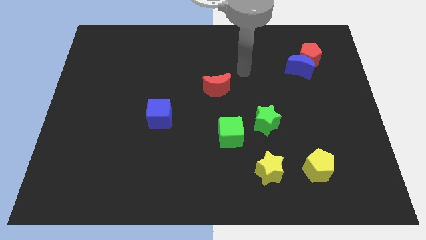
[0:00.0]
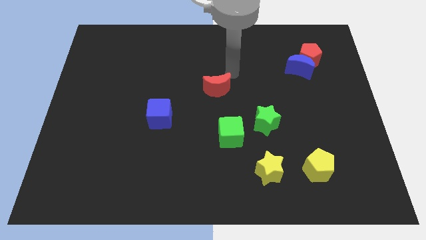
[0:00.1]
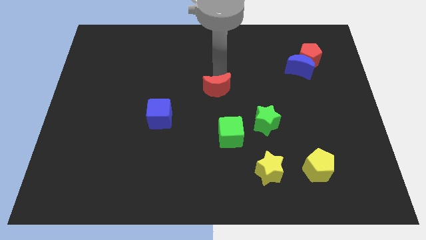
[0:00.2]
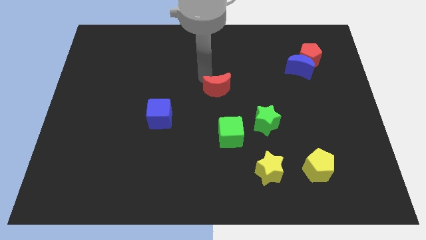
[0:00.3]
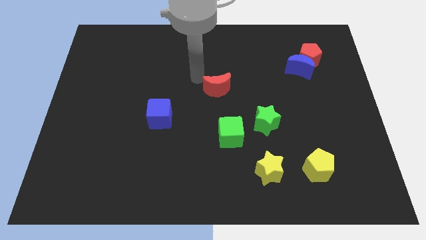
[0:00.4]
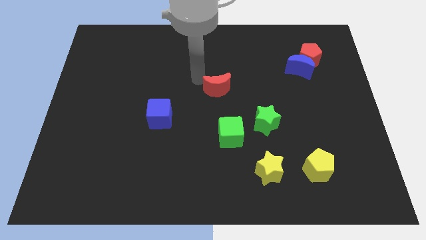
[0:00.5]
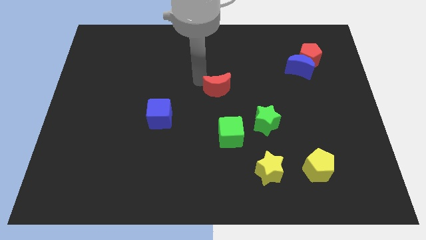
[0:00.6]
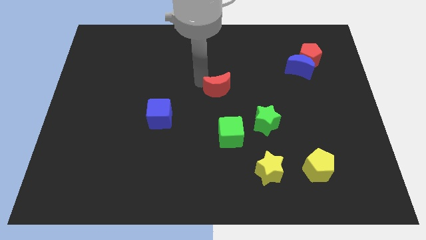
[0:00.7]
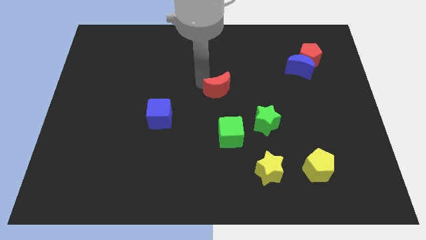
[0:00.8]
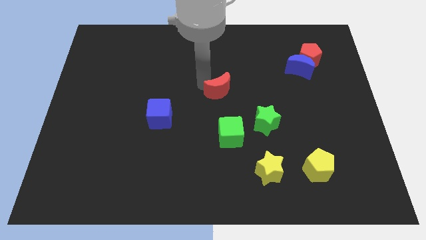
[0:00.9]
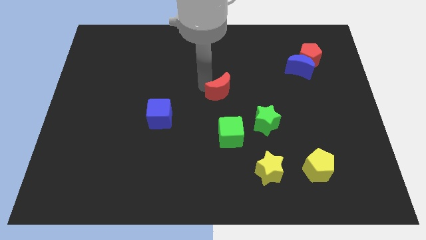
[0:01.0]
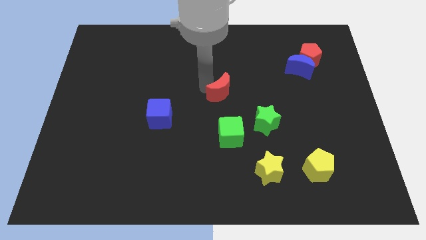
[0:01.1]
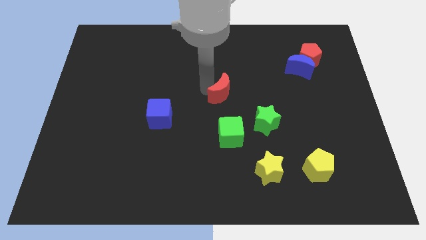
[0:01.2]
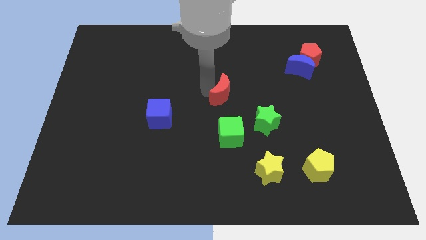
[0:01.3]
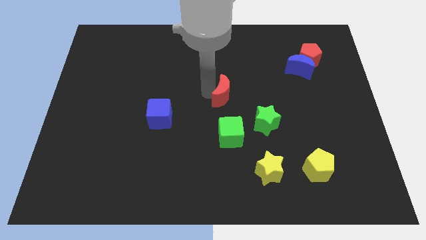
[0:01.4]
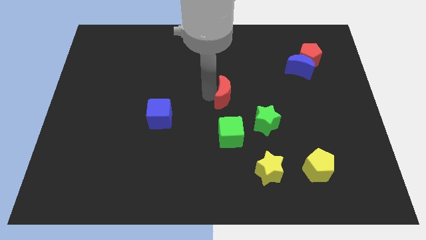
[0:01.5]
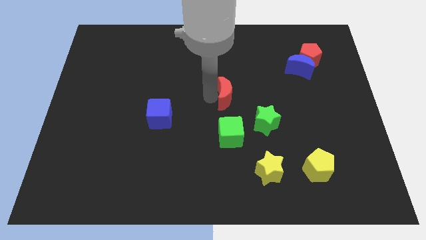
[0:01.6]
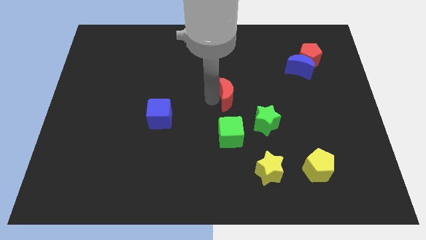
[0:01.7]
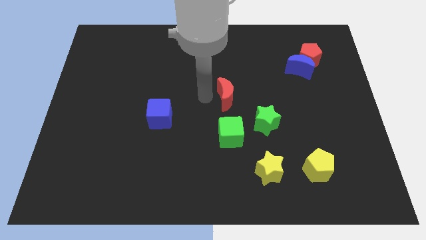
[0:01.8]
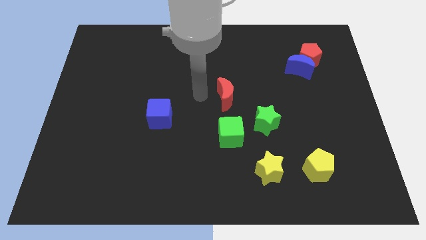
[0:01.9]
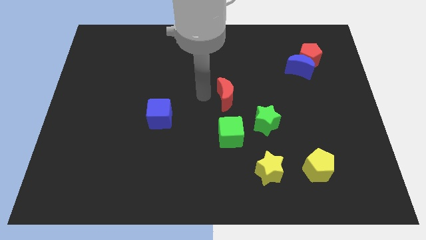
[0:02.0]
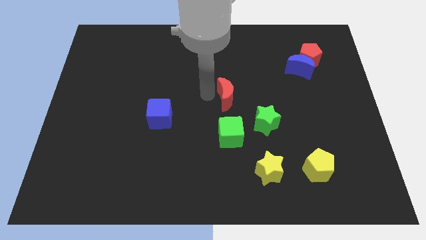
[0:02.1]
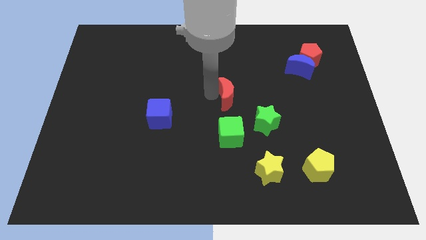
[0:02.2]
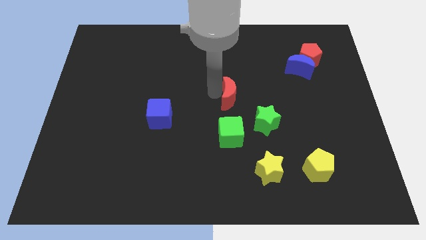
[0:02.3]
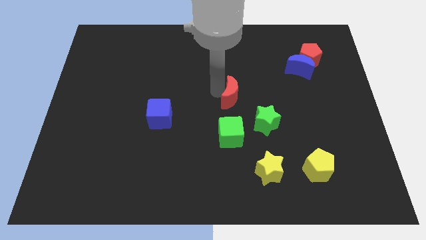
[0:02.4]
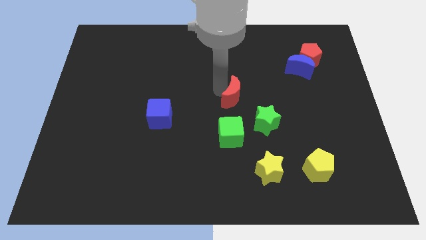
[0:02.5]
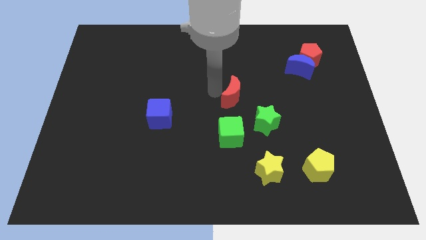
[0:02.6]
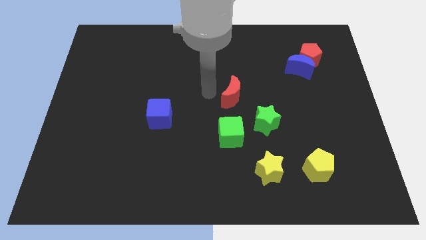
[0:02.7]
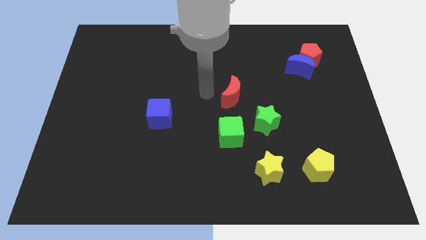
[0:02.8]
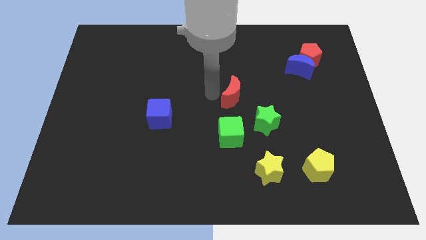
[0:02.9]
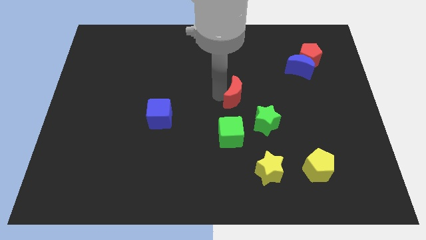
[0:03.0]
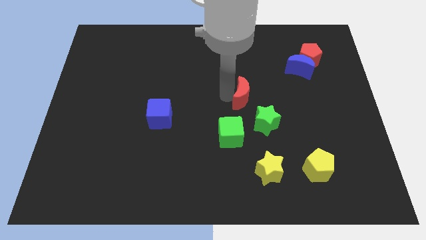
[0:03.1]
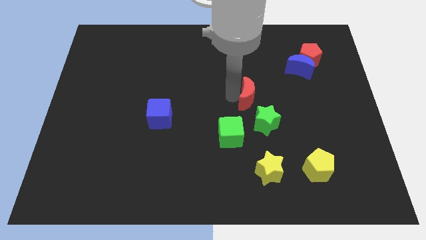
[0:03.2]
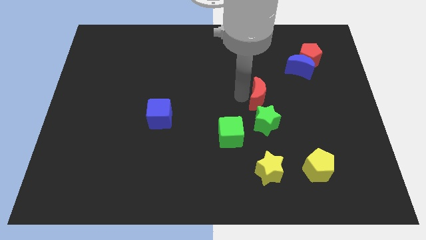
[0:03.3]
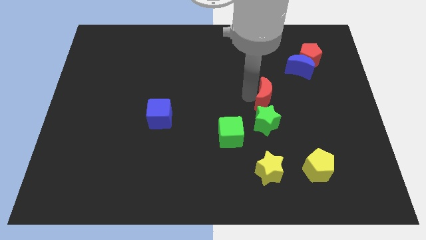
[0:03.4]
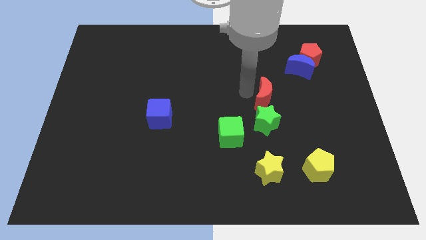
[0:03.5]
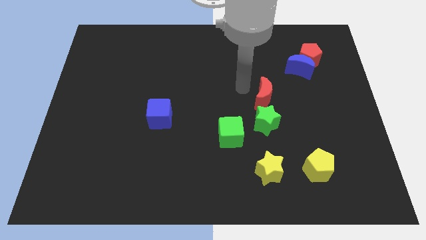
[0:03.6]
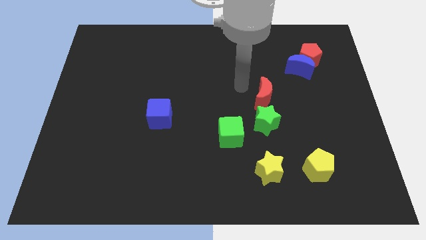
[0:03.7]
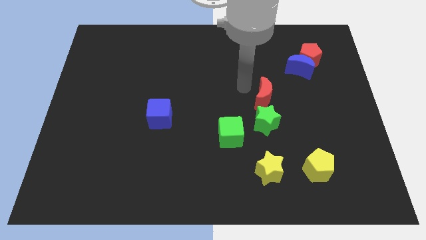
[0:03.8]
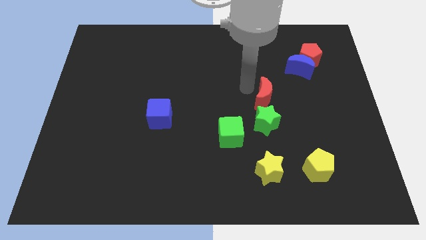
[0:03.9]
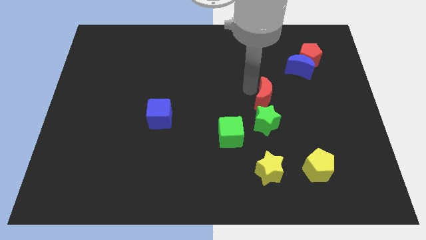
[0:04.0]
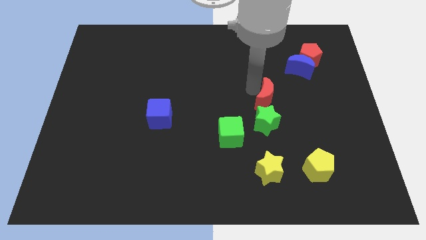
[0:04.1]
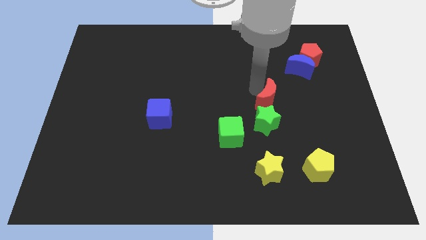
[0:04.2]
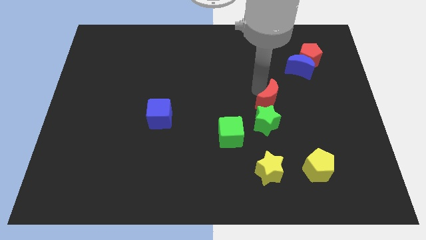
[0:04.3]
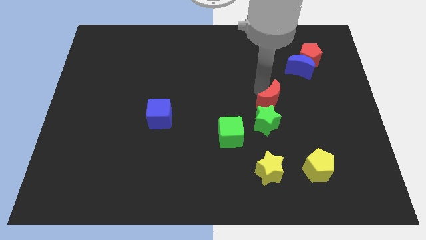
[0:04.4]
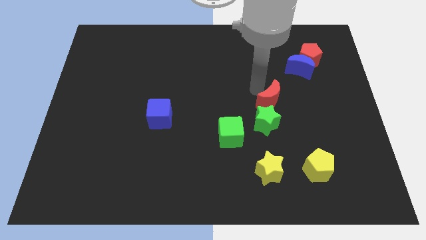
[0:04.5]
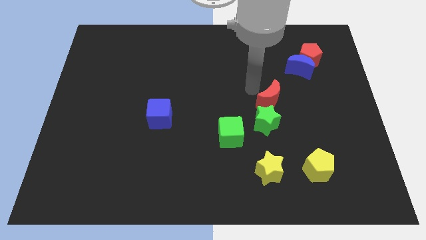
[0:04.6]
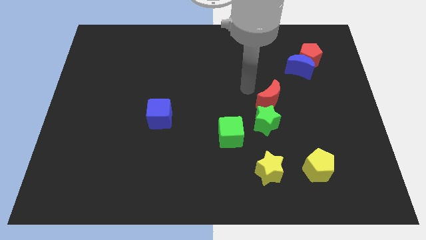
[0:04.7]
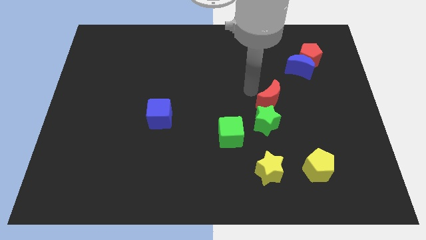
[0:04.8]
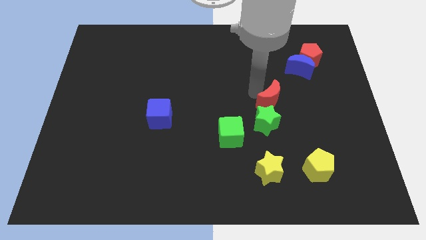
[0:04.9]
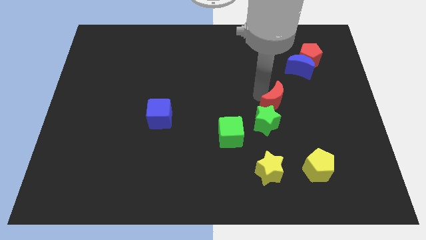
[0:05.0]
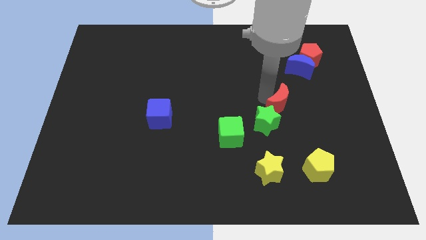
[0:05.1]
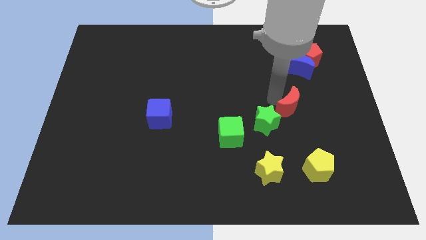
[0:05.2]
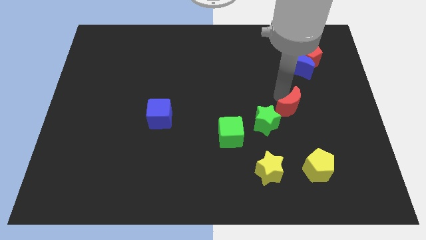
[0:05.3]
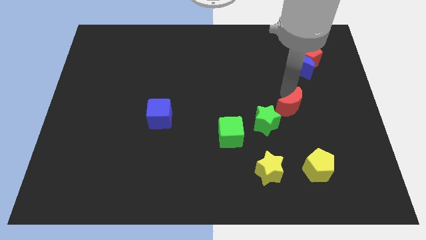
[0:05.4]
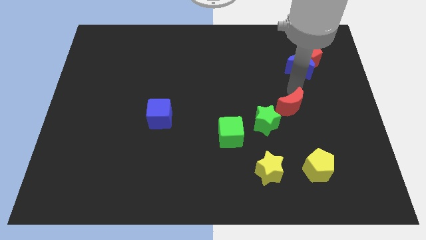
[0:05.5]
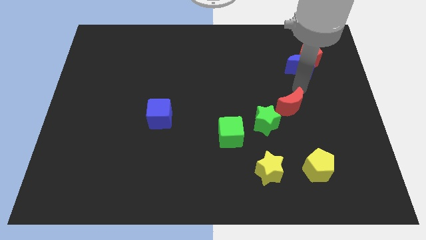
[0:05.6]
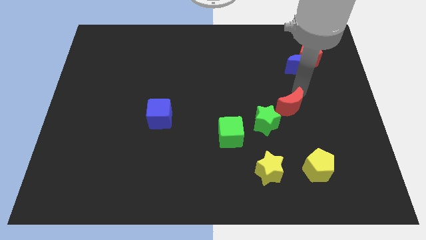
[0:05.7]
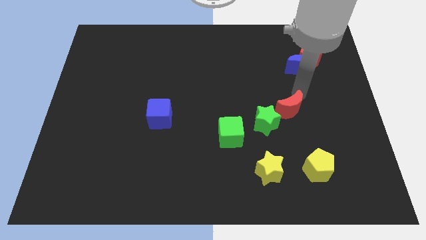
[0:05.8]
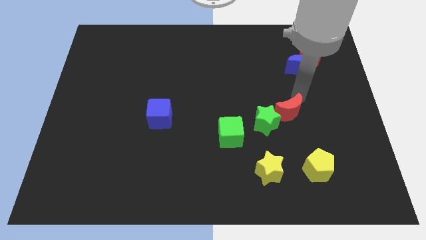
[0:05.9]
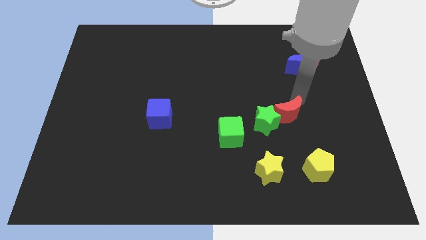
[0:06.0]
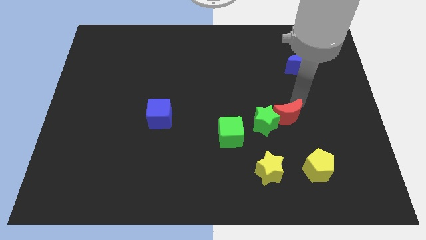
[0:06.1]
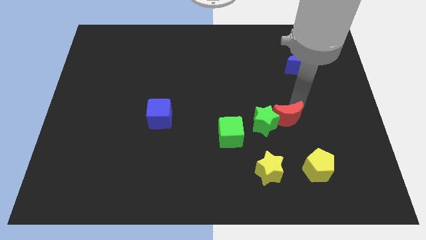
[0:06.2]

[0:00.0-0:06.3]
slide the red moon to the right side of the green cube

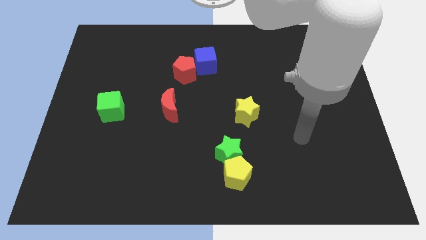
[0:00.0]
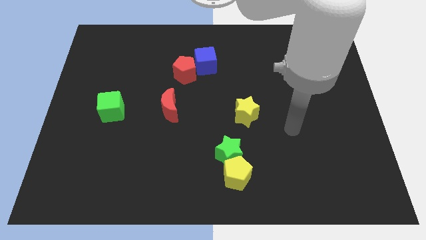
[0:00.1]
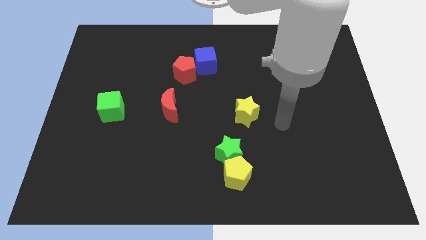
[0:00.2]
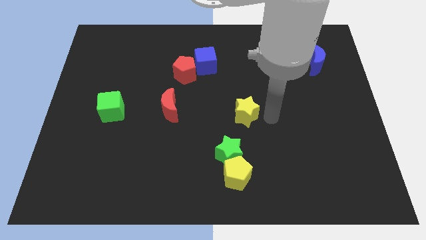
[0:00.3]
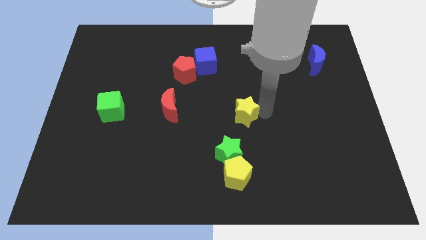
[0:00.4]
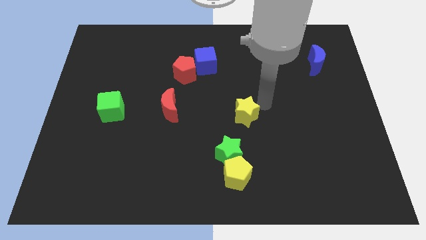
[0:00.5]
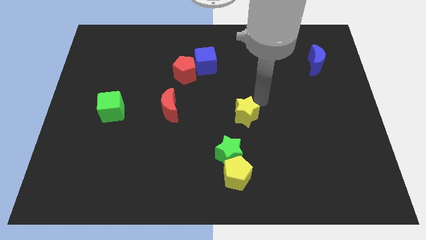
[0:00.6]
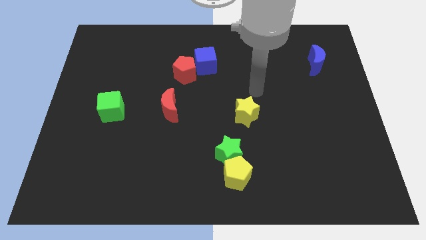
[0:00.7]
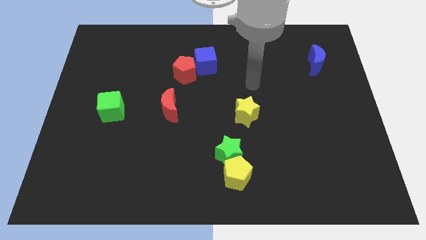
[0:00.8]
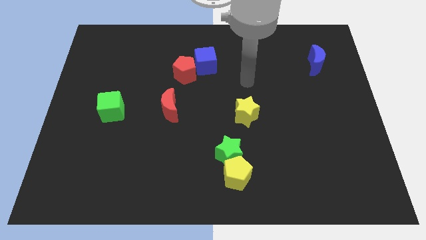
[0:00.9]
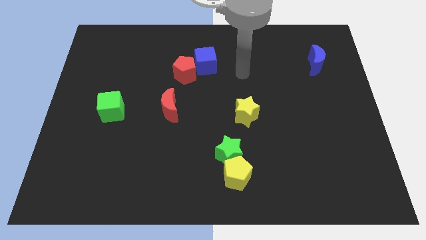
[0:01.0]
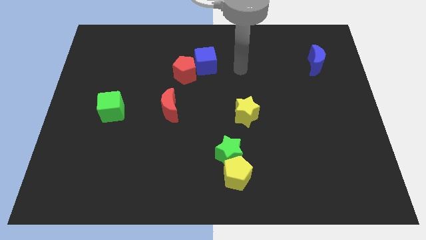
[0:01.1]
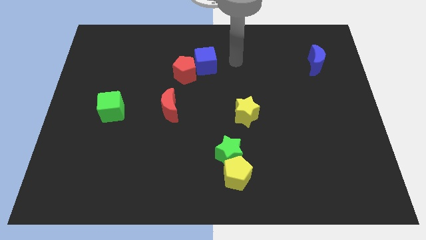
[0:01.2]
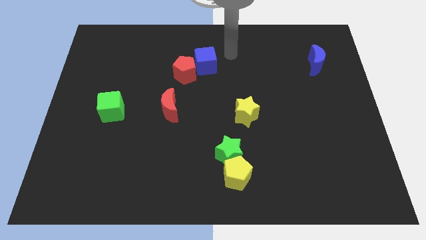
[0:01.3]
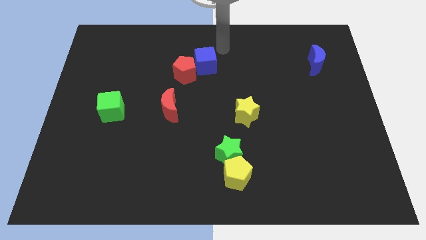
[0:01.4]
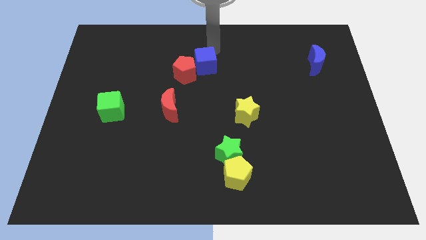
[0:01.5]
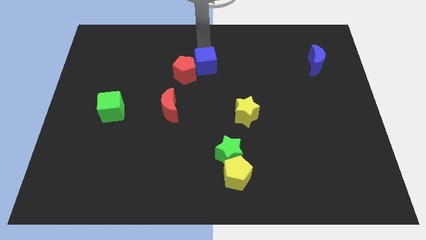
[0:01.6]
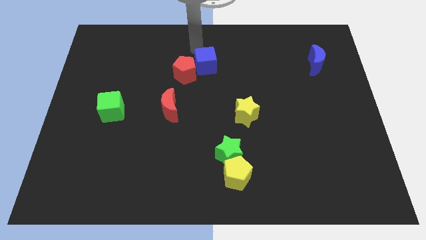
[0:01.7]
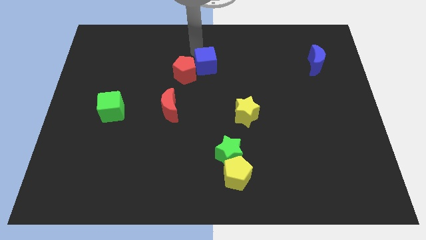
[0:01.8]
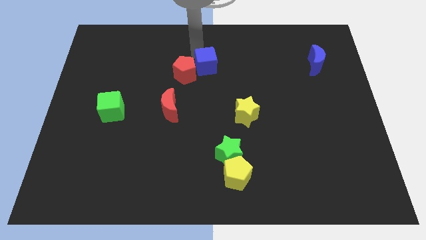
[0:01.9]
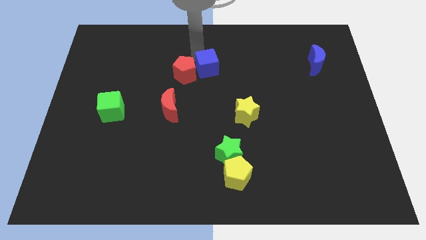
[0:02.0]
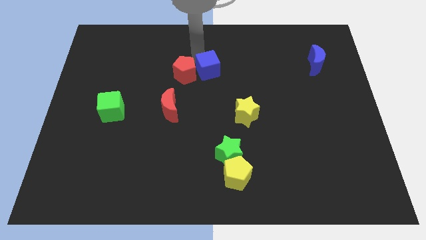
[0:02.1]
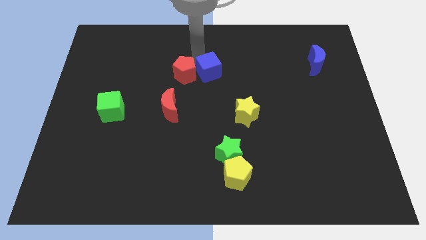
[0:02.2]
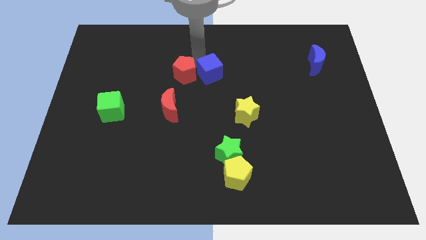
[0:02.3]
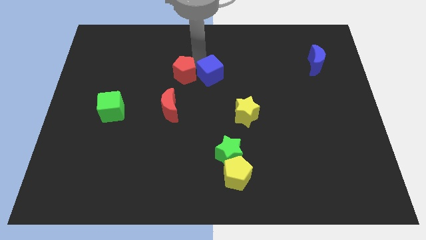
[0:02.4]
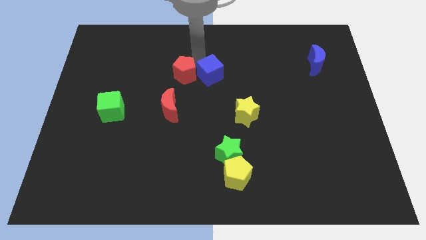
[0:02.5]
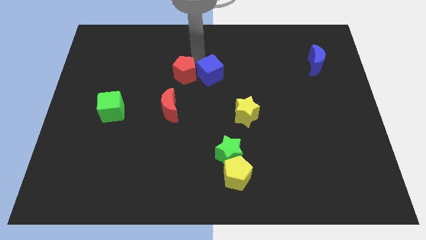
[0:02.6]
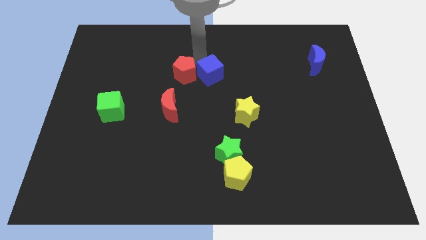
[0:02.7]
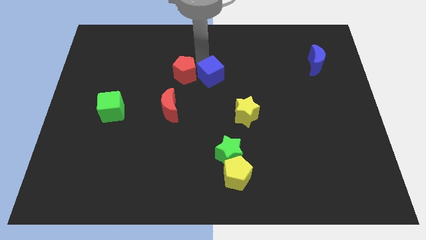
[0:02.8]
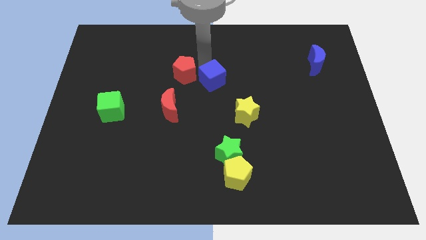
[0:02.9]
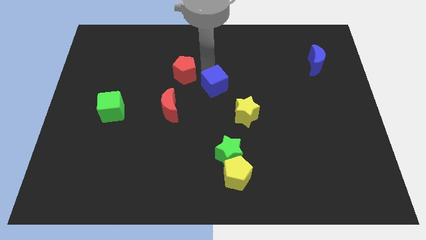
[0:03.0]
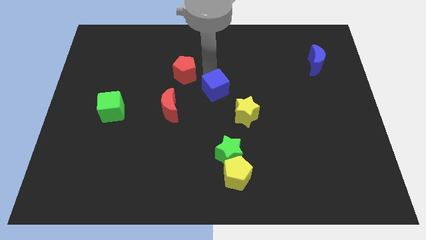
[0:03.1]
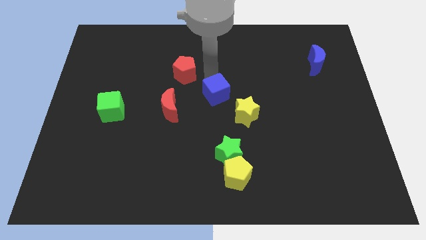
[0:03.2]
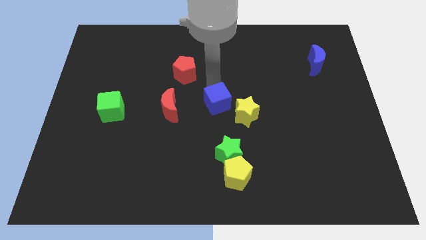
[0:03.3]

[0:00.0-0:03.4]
move the blue cube above the green star
